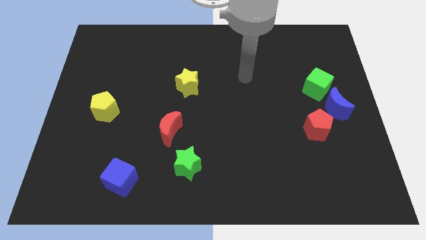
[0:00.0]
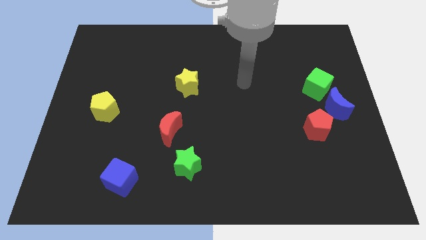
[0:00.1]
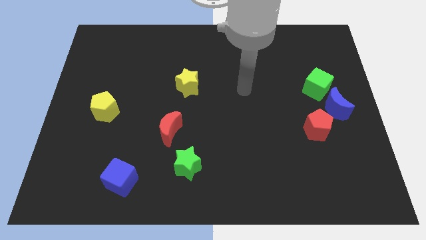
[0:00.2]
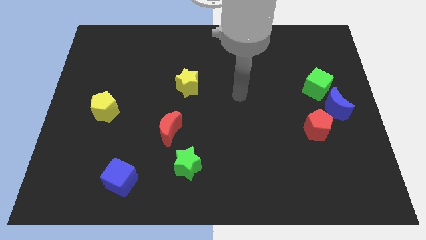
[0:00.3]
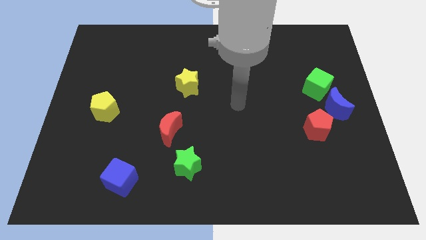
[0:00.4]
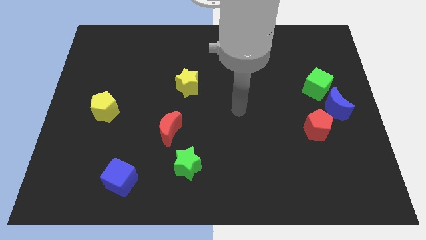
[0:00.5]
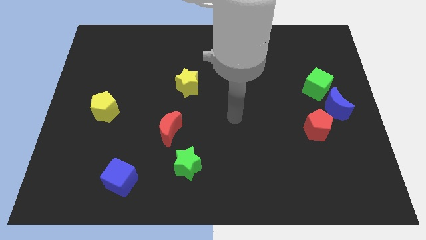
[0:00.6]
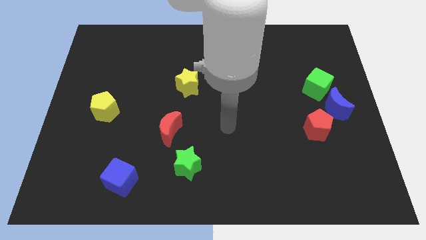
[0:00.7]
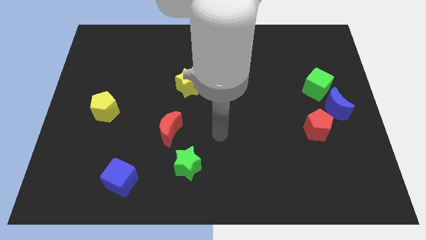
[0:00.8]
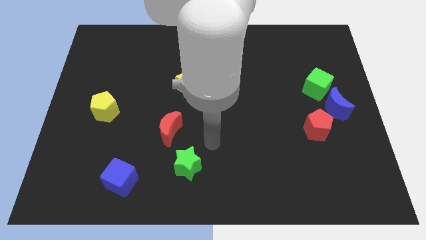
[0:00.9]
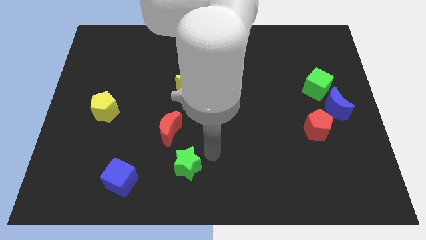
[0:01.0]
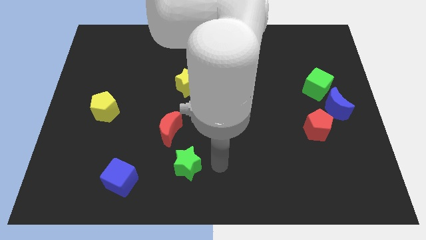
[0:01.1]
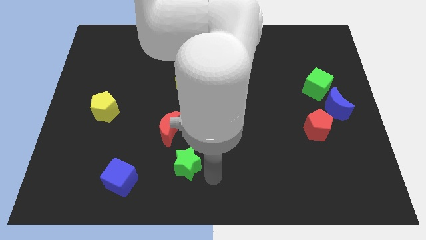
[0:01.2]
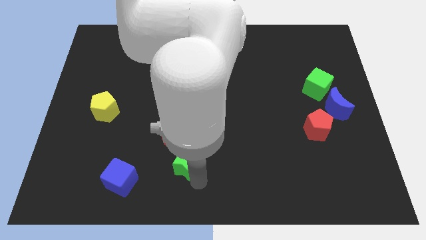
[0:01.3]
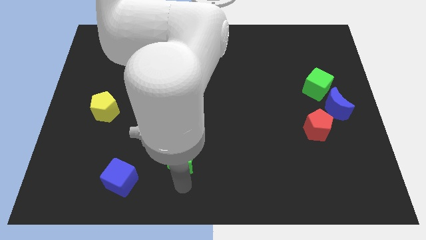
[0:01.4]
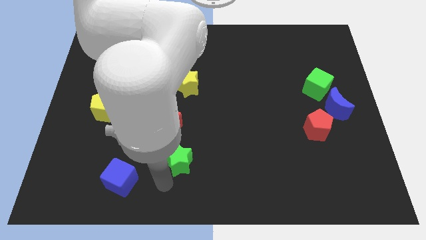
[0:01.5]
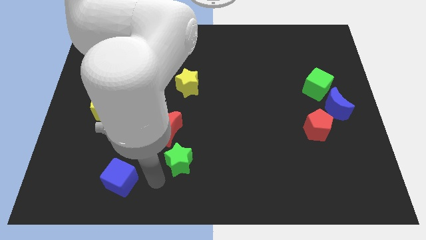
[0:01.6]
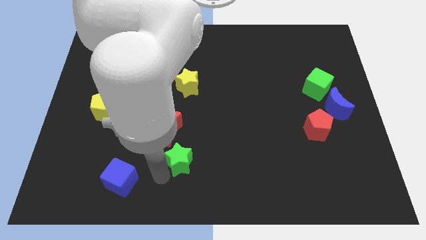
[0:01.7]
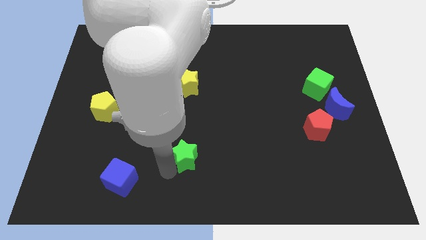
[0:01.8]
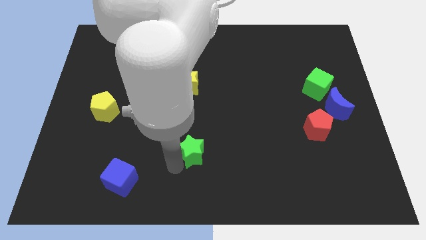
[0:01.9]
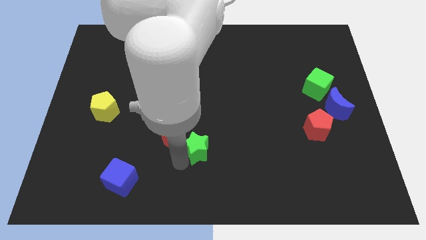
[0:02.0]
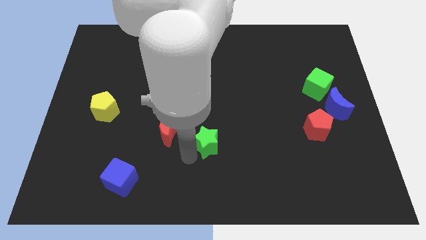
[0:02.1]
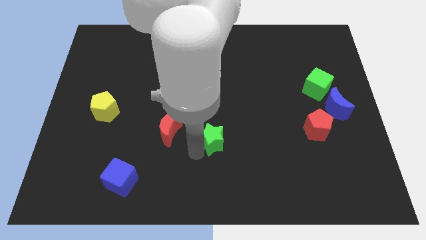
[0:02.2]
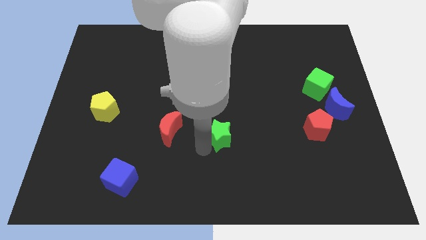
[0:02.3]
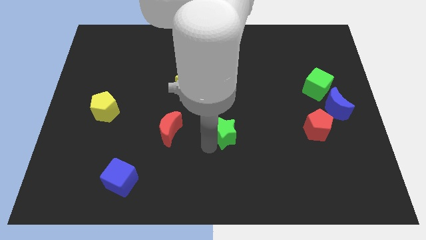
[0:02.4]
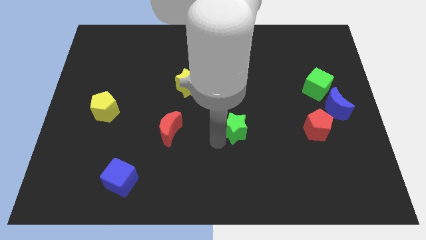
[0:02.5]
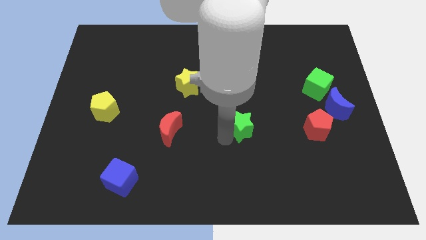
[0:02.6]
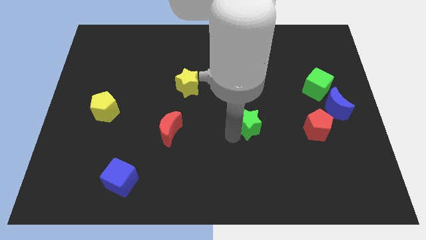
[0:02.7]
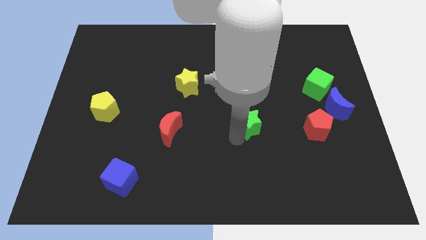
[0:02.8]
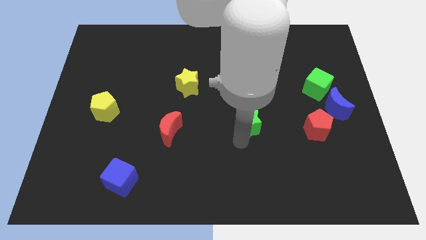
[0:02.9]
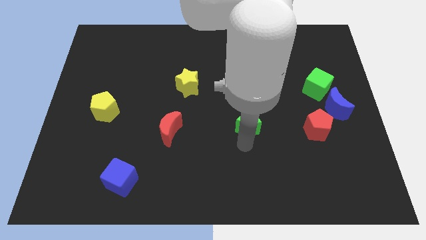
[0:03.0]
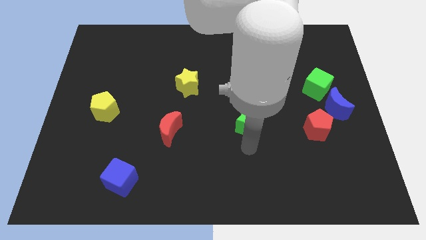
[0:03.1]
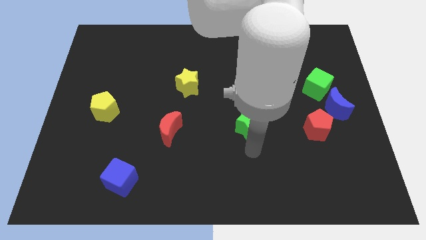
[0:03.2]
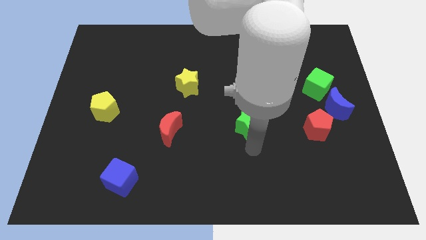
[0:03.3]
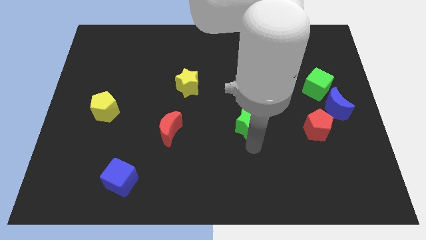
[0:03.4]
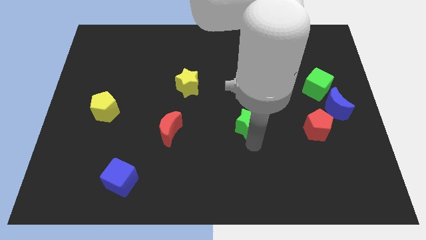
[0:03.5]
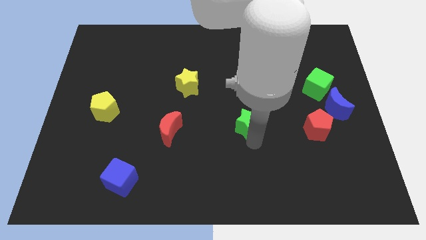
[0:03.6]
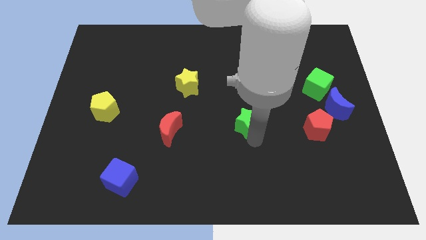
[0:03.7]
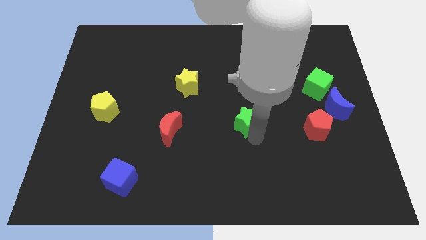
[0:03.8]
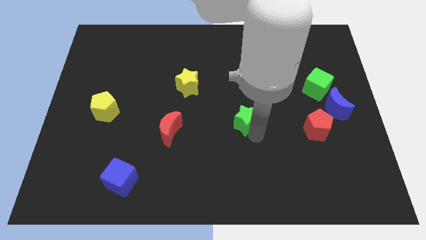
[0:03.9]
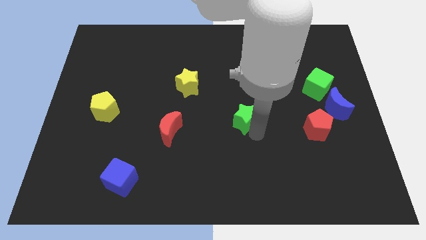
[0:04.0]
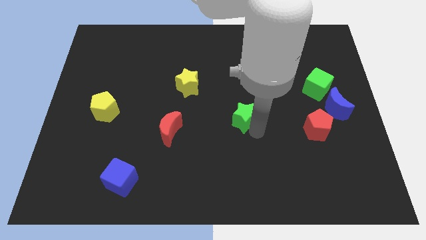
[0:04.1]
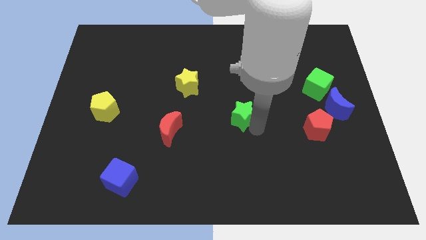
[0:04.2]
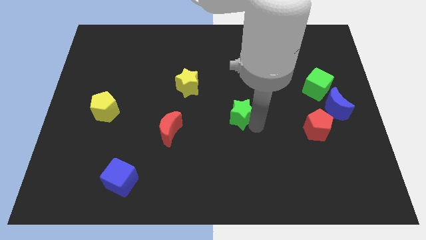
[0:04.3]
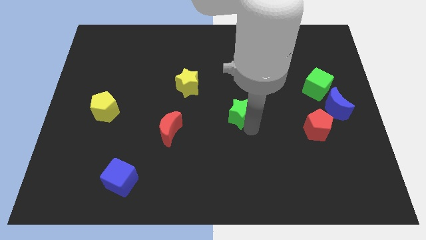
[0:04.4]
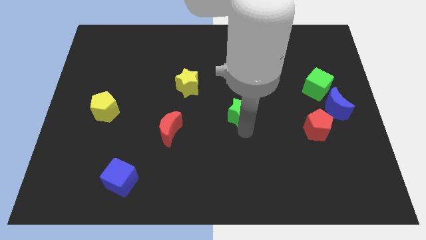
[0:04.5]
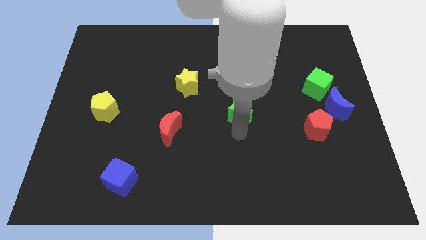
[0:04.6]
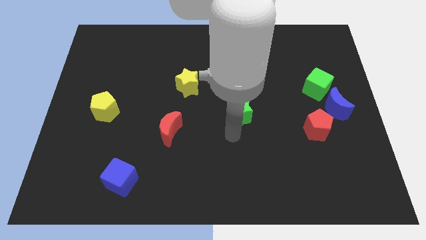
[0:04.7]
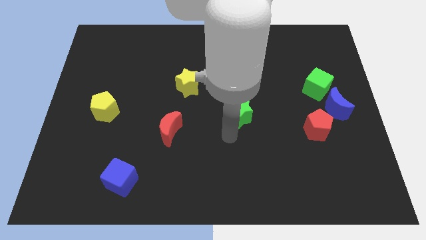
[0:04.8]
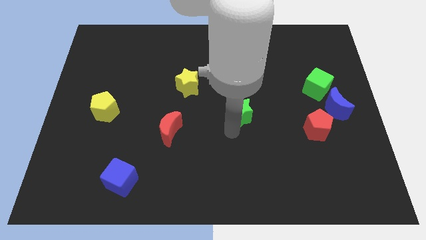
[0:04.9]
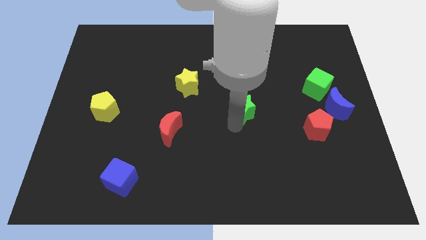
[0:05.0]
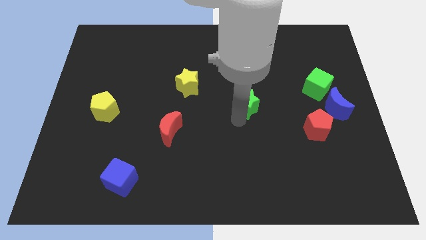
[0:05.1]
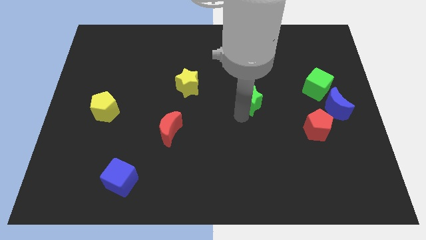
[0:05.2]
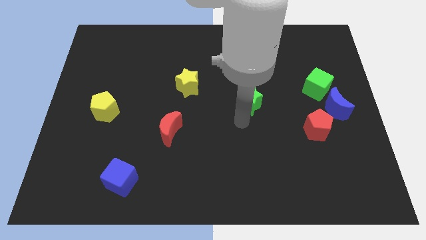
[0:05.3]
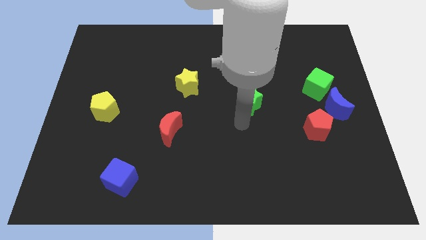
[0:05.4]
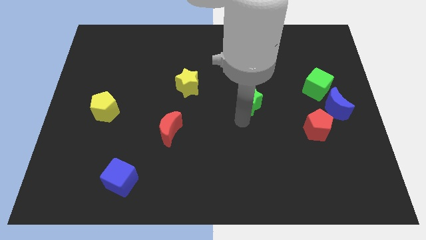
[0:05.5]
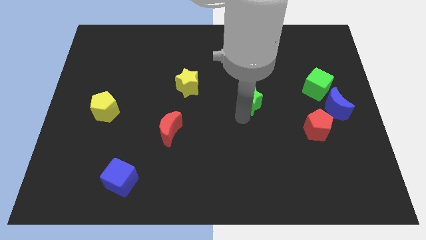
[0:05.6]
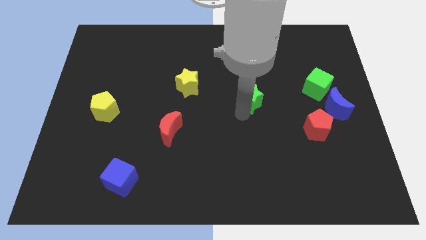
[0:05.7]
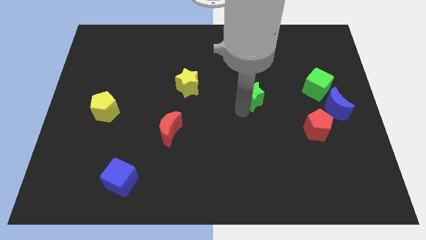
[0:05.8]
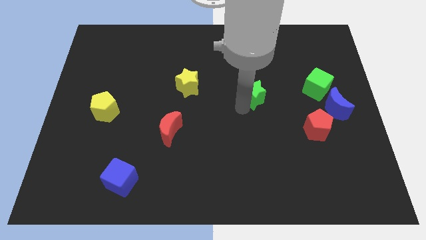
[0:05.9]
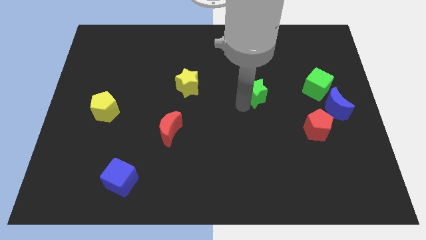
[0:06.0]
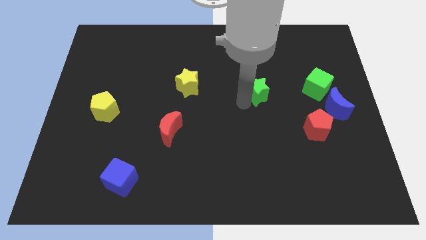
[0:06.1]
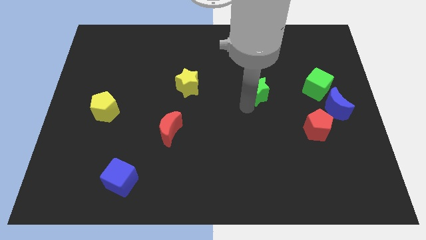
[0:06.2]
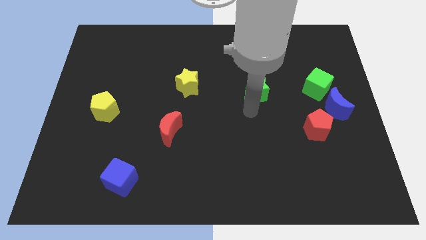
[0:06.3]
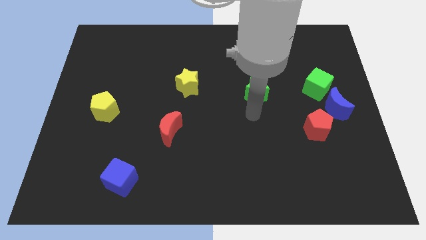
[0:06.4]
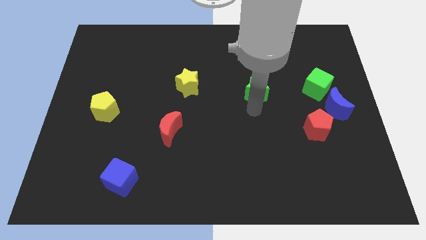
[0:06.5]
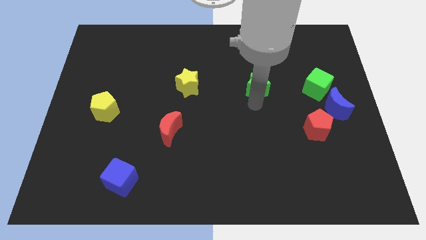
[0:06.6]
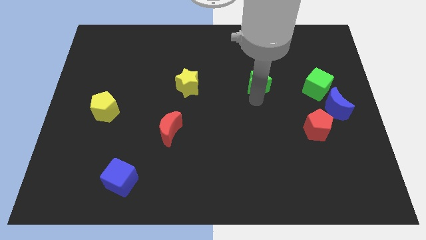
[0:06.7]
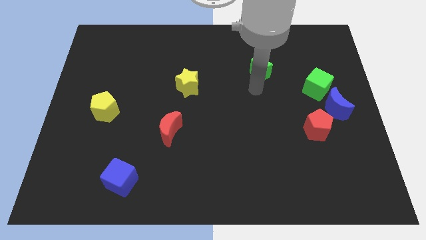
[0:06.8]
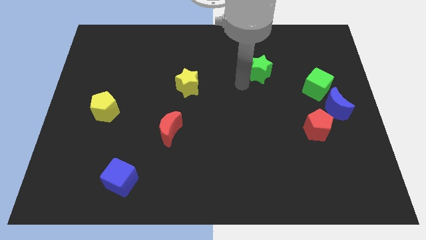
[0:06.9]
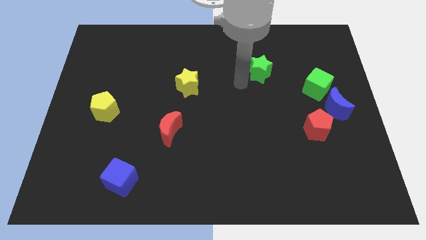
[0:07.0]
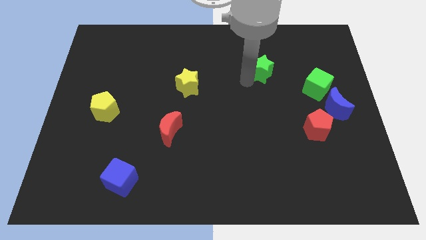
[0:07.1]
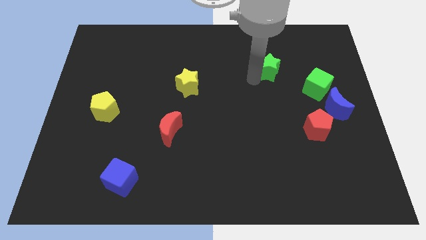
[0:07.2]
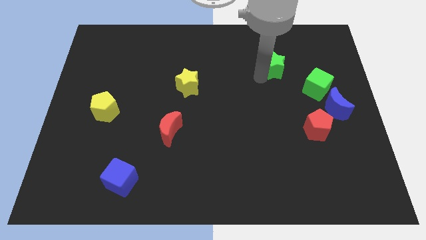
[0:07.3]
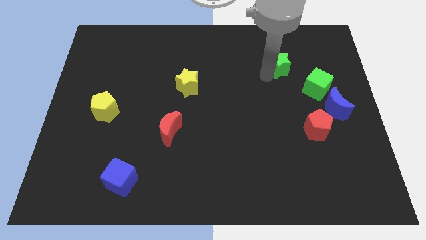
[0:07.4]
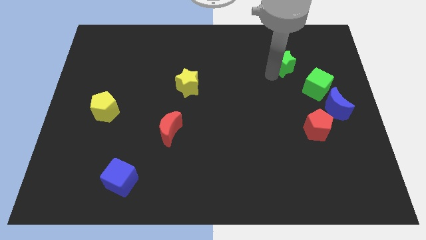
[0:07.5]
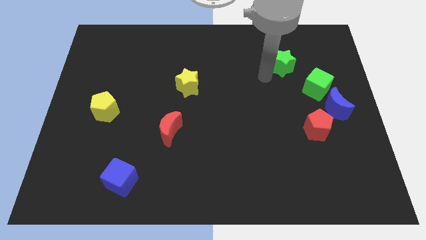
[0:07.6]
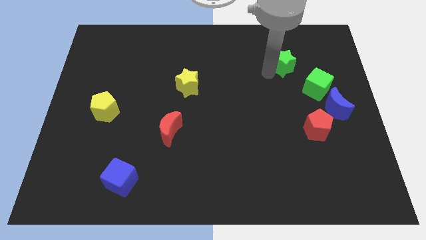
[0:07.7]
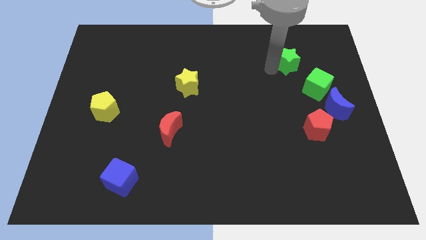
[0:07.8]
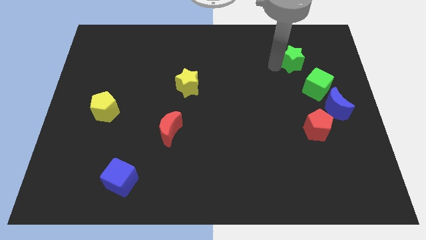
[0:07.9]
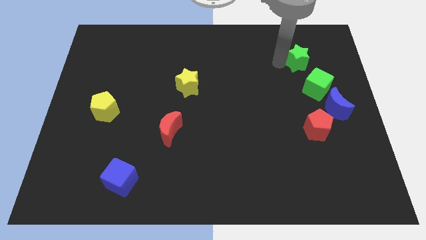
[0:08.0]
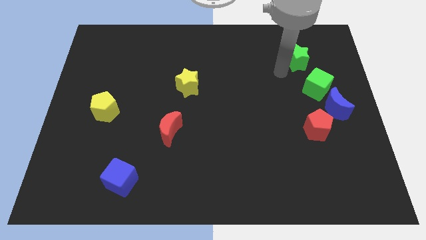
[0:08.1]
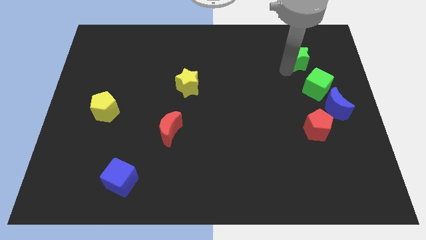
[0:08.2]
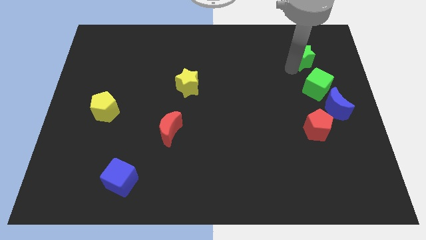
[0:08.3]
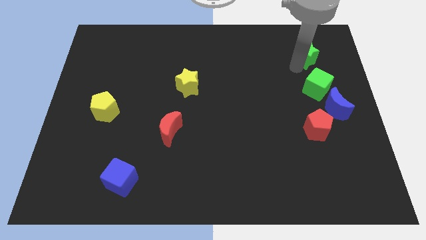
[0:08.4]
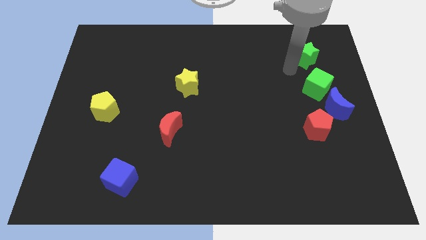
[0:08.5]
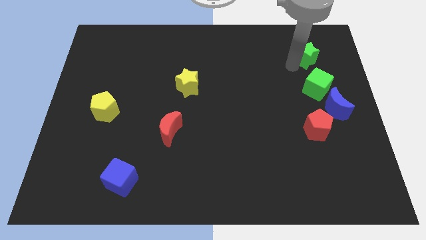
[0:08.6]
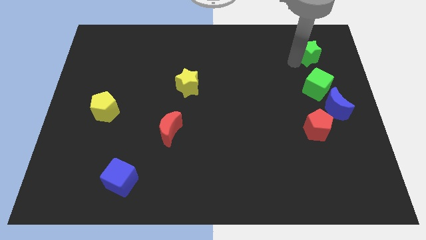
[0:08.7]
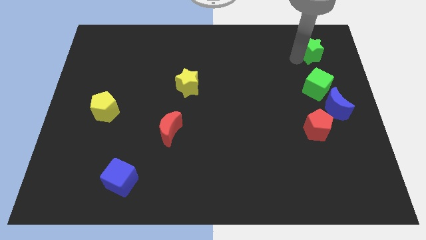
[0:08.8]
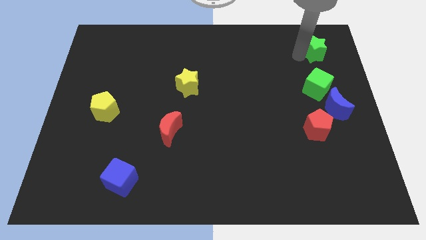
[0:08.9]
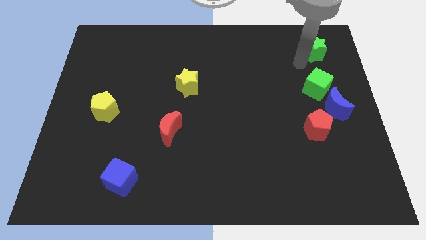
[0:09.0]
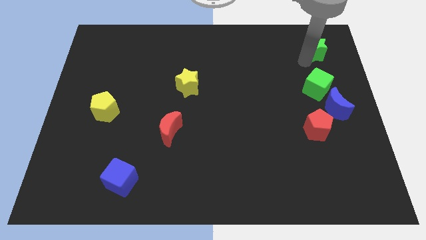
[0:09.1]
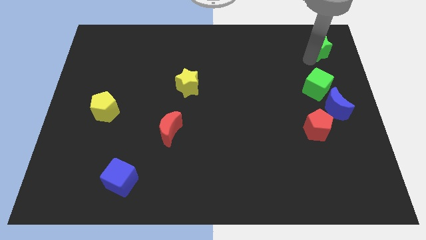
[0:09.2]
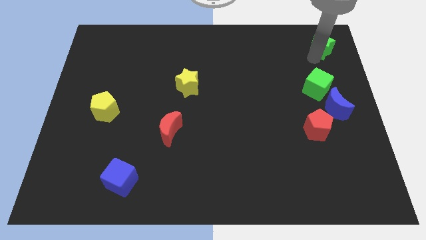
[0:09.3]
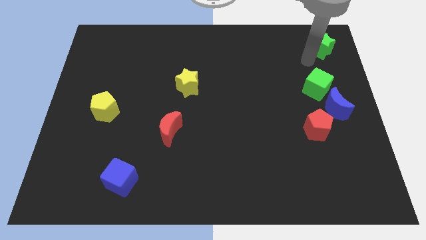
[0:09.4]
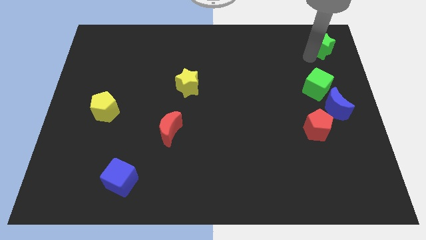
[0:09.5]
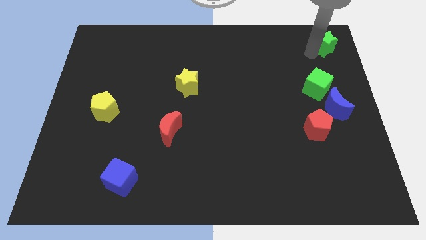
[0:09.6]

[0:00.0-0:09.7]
slide the green star to the top right
